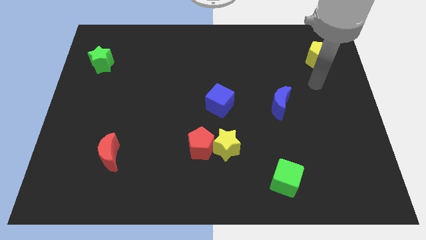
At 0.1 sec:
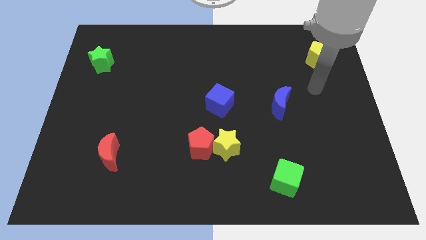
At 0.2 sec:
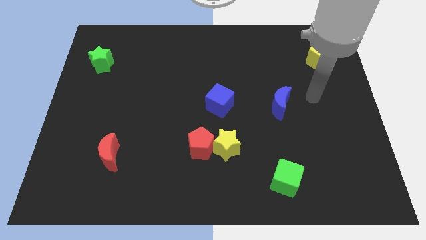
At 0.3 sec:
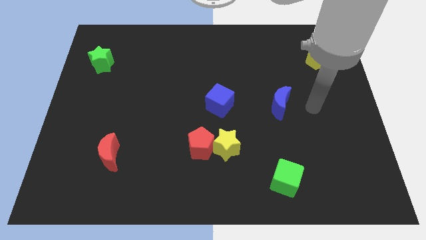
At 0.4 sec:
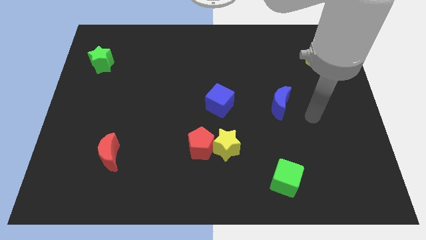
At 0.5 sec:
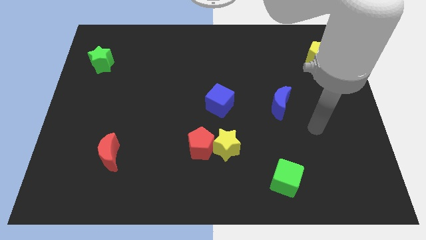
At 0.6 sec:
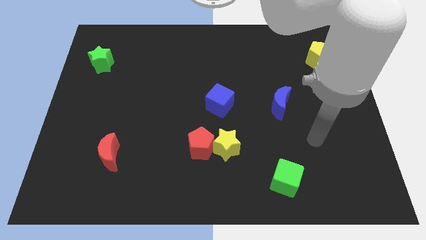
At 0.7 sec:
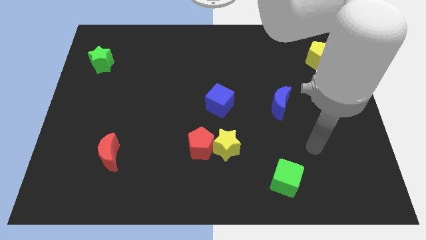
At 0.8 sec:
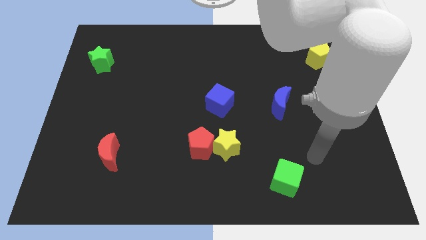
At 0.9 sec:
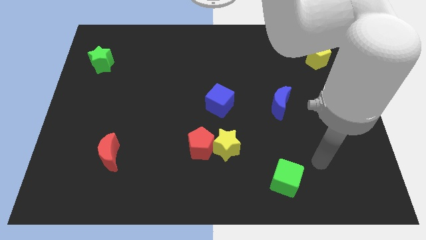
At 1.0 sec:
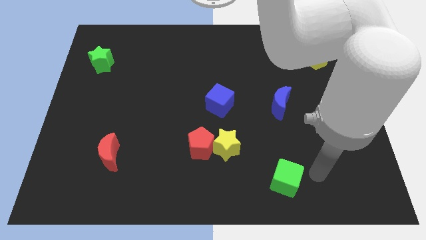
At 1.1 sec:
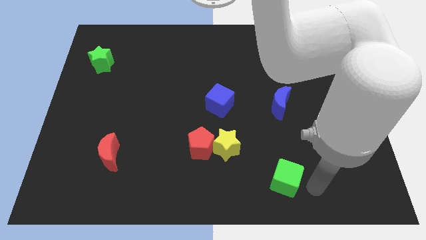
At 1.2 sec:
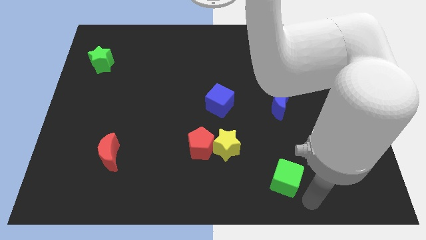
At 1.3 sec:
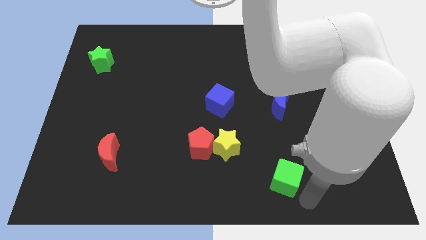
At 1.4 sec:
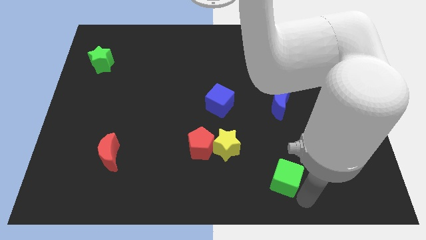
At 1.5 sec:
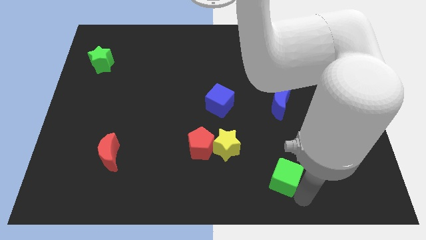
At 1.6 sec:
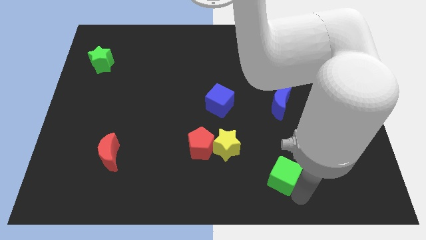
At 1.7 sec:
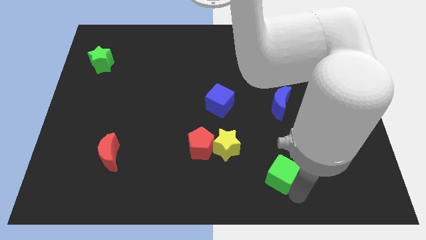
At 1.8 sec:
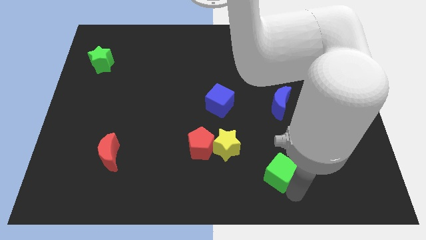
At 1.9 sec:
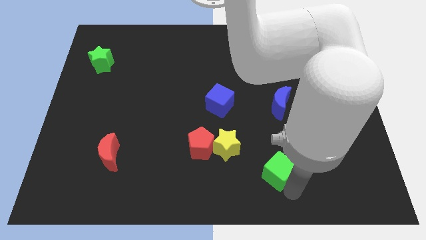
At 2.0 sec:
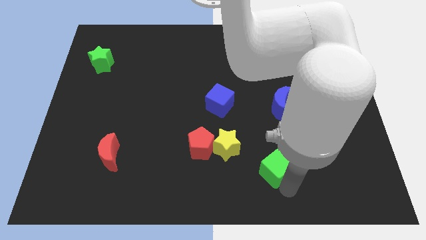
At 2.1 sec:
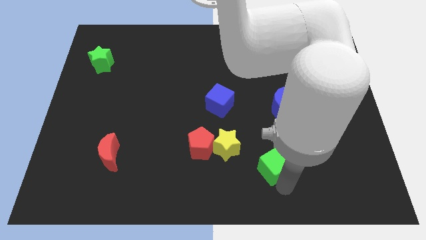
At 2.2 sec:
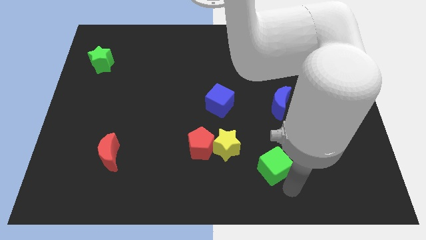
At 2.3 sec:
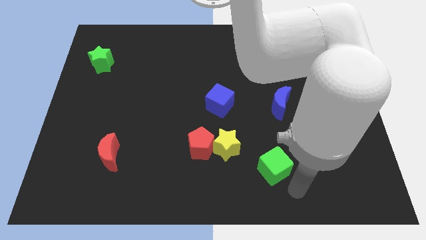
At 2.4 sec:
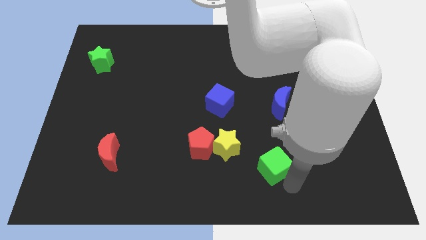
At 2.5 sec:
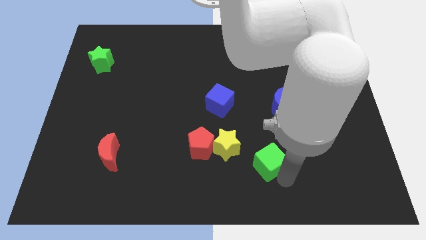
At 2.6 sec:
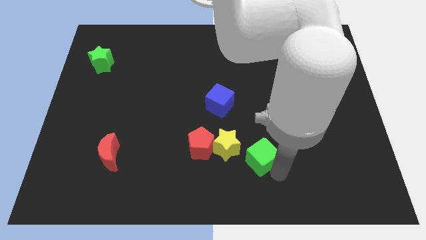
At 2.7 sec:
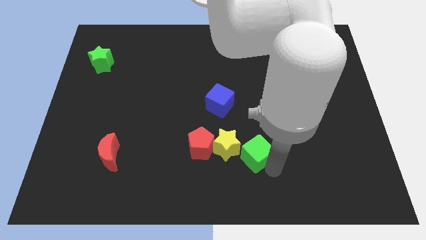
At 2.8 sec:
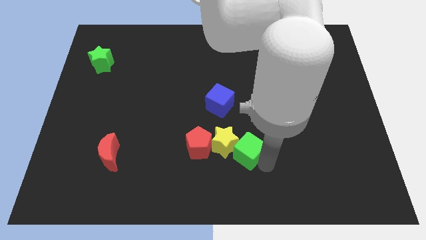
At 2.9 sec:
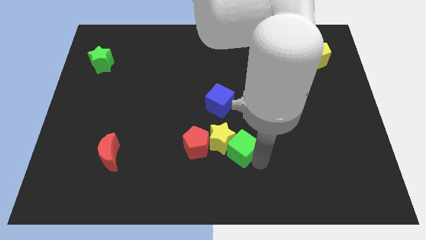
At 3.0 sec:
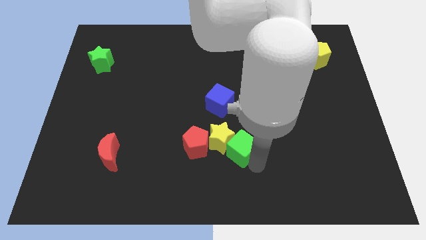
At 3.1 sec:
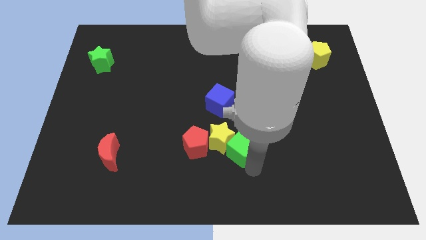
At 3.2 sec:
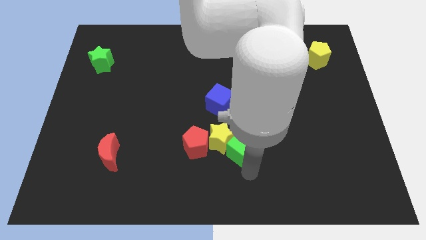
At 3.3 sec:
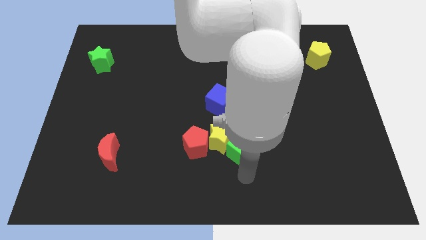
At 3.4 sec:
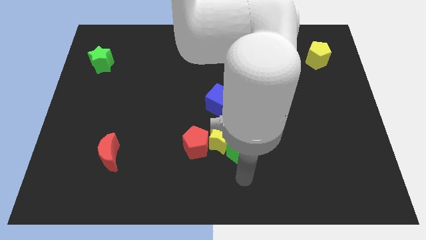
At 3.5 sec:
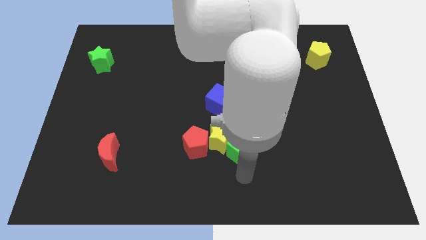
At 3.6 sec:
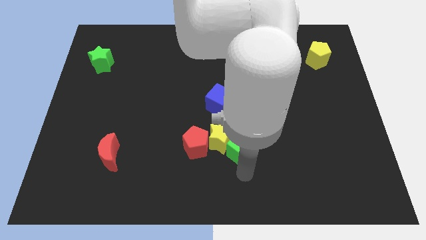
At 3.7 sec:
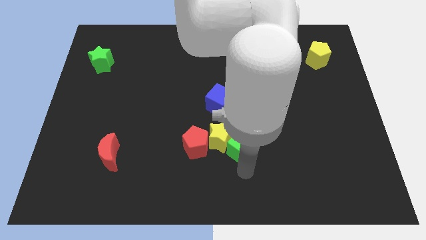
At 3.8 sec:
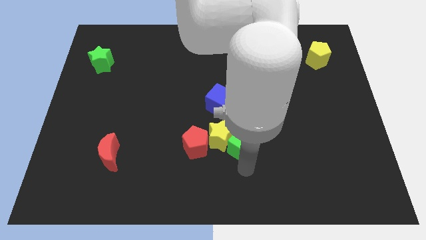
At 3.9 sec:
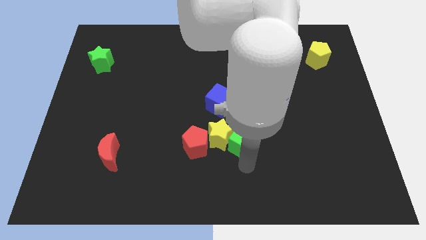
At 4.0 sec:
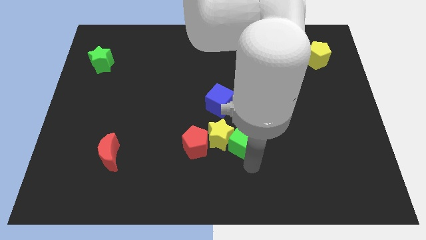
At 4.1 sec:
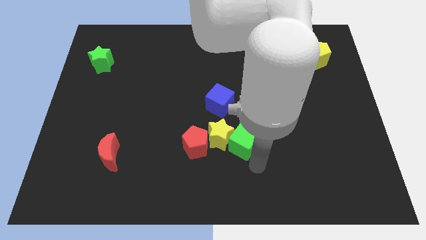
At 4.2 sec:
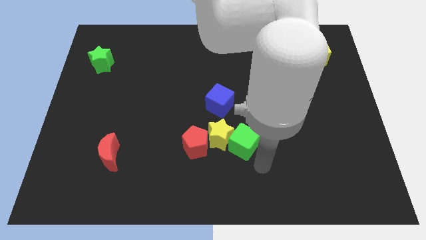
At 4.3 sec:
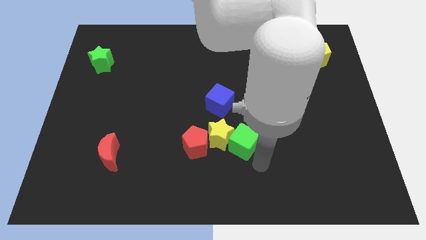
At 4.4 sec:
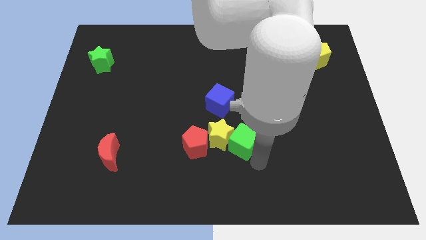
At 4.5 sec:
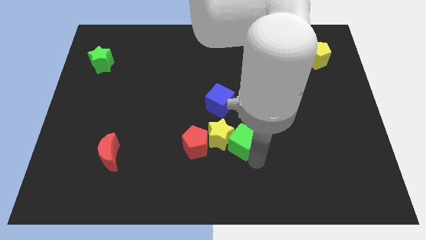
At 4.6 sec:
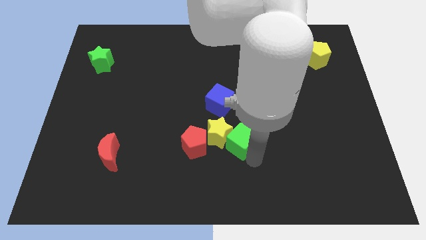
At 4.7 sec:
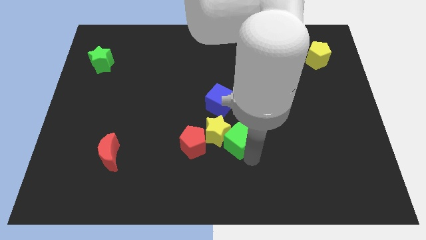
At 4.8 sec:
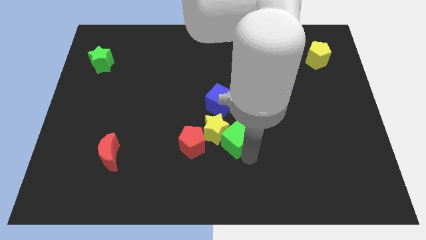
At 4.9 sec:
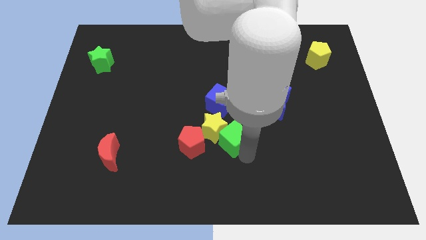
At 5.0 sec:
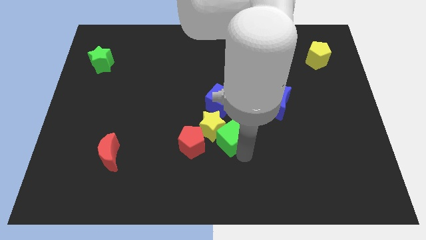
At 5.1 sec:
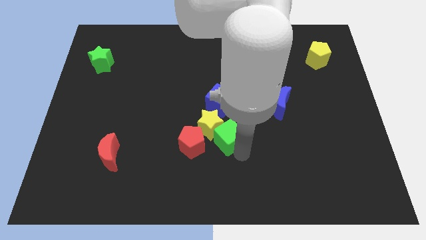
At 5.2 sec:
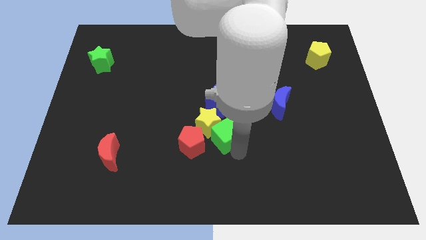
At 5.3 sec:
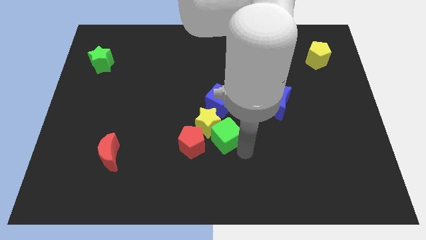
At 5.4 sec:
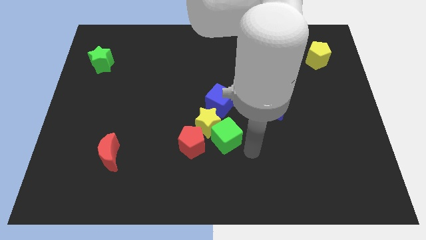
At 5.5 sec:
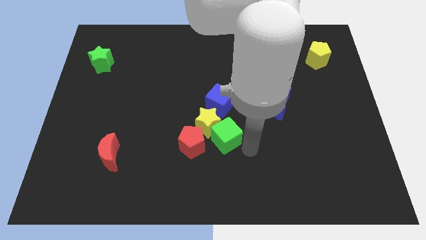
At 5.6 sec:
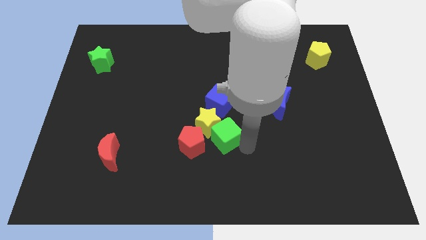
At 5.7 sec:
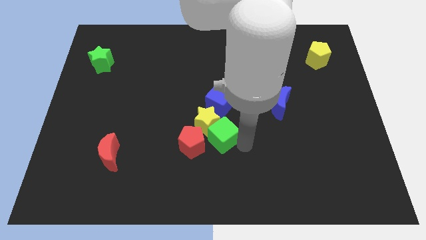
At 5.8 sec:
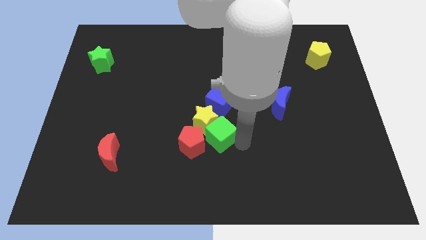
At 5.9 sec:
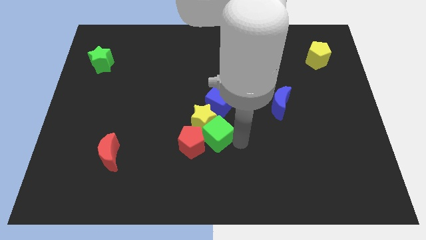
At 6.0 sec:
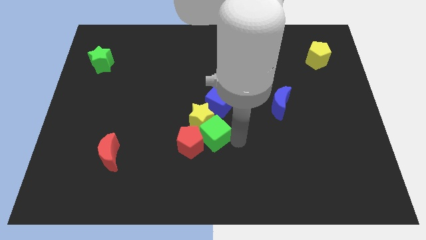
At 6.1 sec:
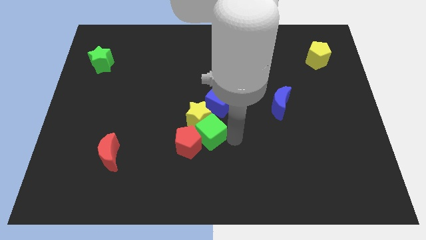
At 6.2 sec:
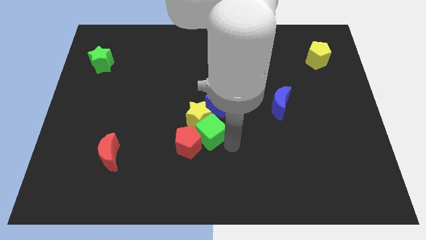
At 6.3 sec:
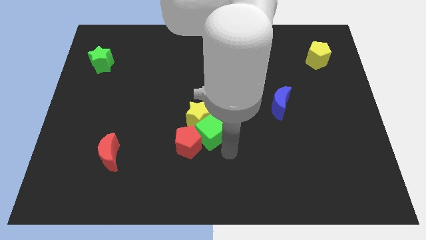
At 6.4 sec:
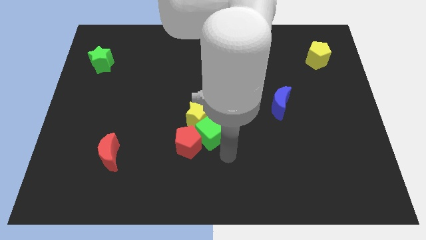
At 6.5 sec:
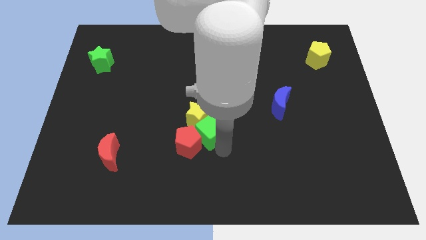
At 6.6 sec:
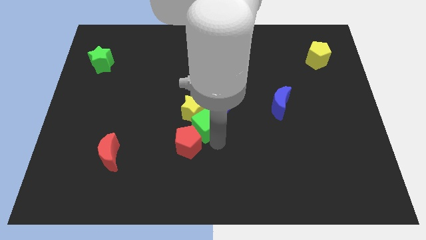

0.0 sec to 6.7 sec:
push the green cube up and to the left diagonally

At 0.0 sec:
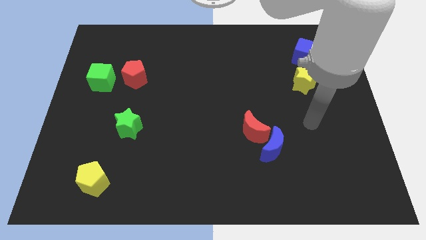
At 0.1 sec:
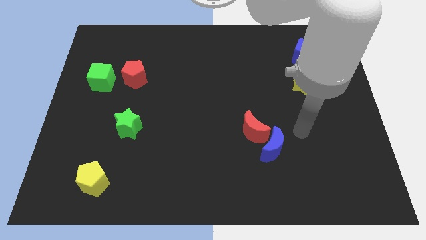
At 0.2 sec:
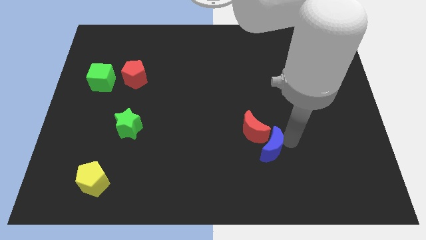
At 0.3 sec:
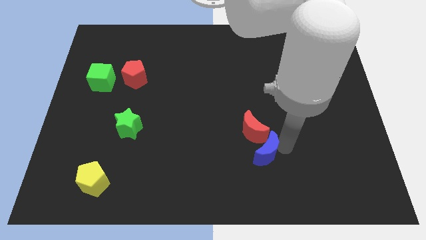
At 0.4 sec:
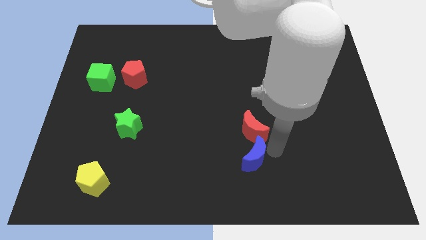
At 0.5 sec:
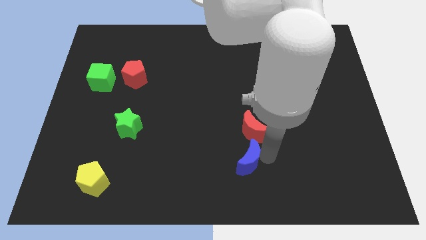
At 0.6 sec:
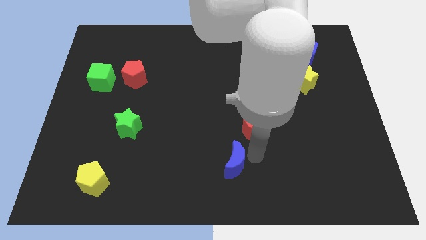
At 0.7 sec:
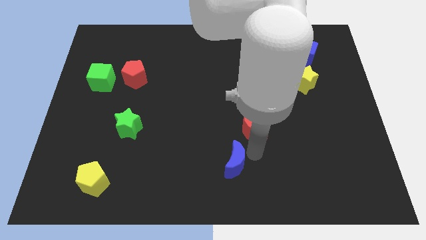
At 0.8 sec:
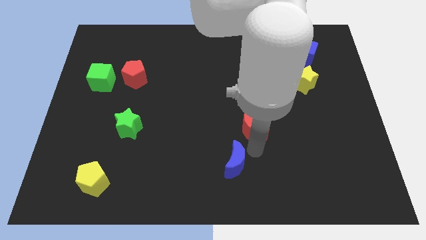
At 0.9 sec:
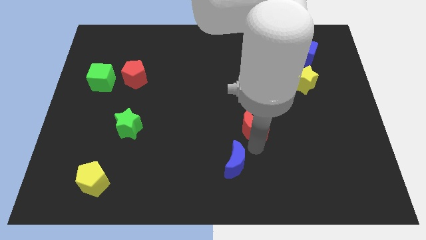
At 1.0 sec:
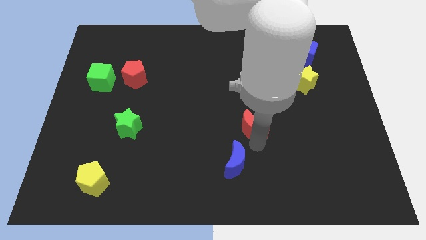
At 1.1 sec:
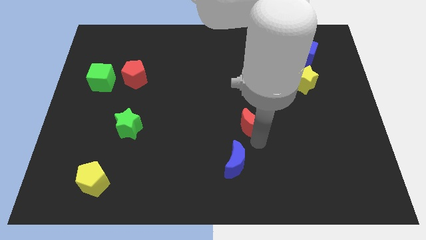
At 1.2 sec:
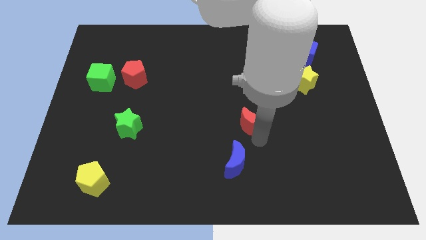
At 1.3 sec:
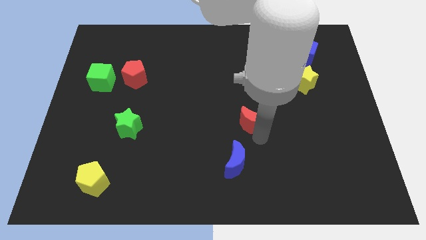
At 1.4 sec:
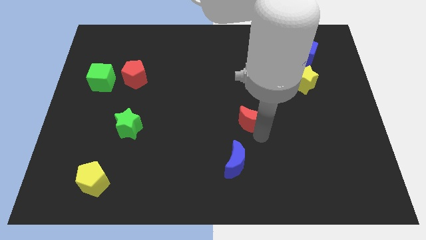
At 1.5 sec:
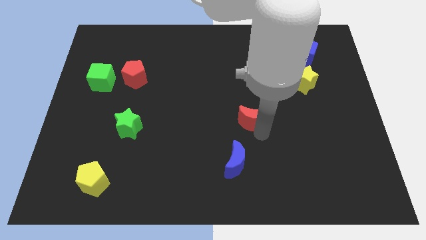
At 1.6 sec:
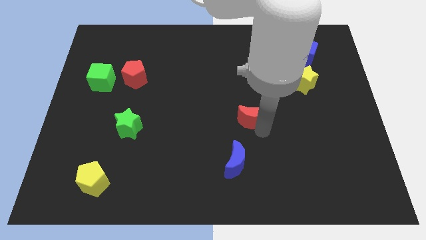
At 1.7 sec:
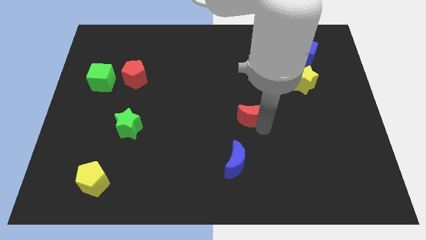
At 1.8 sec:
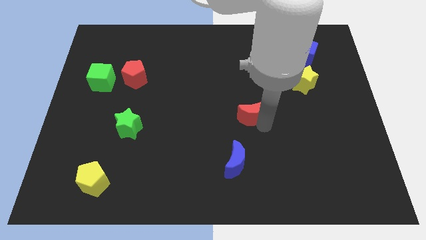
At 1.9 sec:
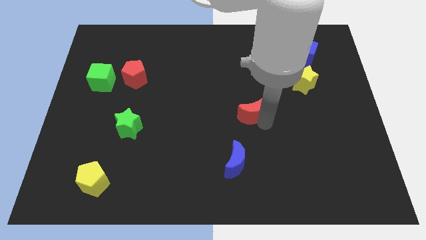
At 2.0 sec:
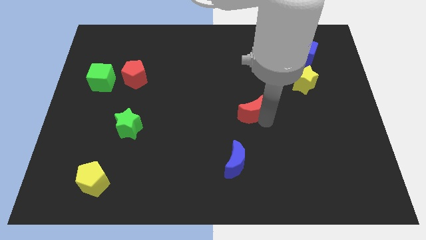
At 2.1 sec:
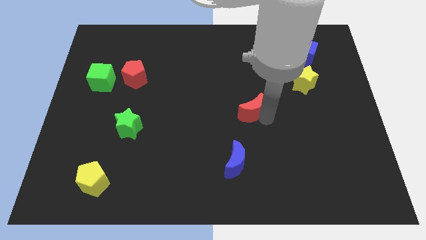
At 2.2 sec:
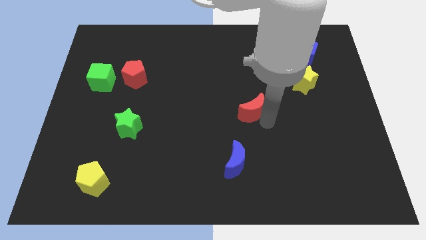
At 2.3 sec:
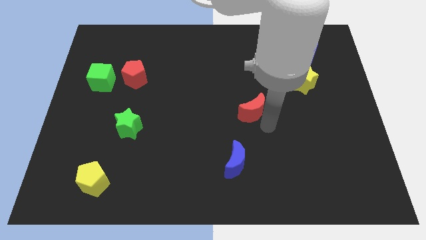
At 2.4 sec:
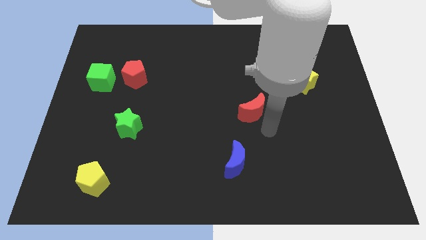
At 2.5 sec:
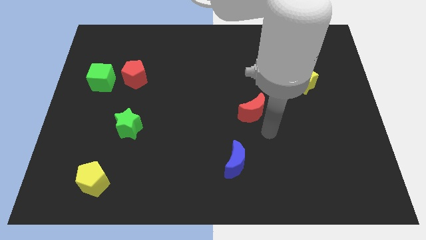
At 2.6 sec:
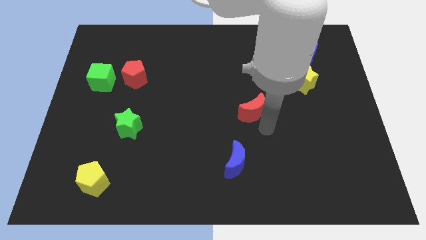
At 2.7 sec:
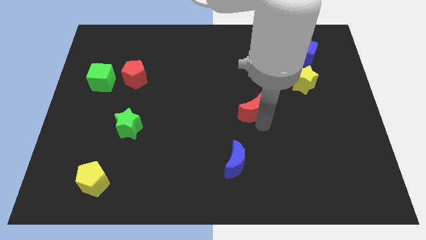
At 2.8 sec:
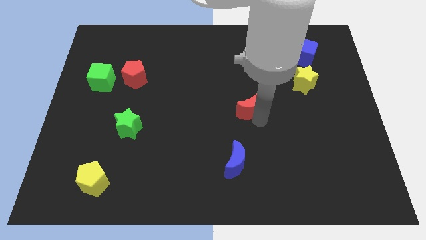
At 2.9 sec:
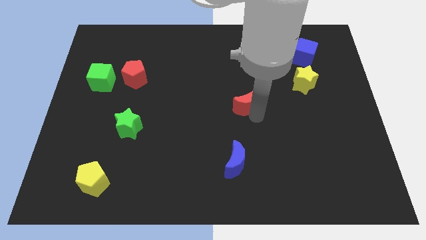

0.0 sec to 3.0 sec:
move the red moon a bit upwards
